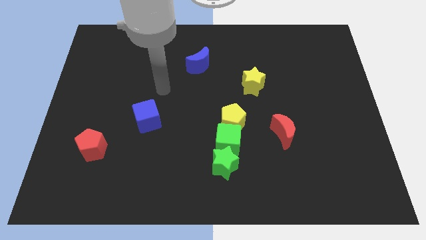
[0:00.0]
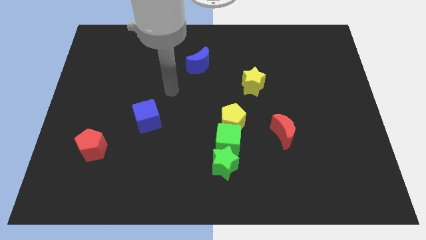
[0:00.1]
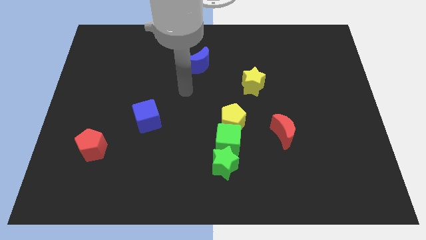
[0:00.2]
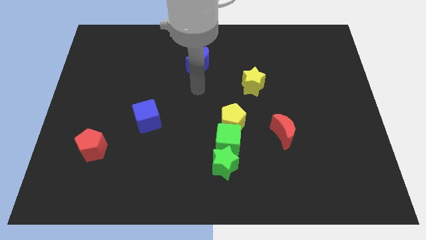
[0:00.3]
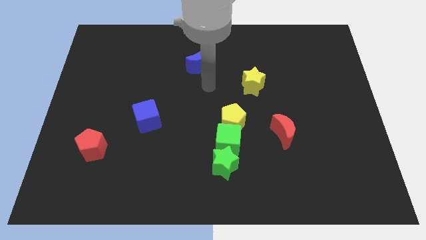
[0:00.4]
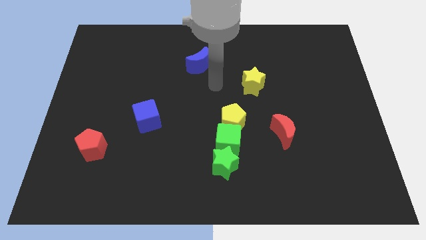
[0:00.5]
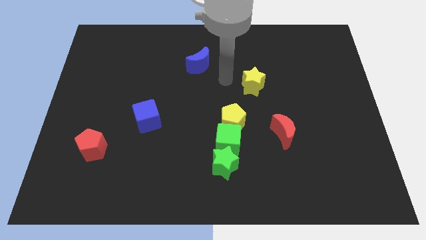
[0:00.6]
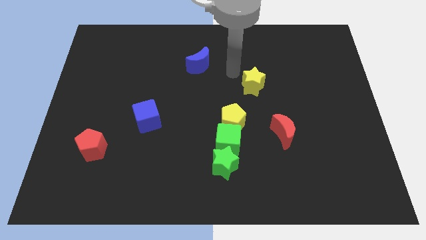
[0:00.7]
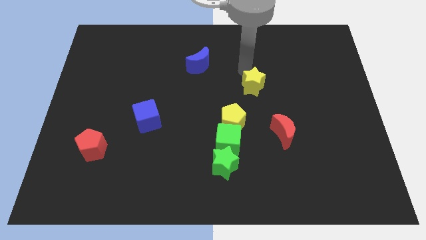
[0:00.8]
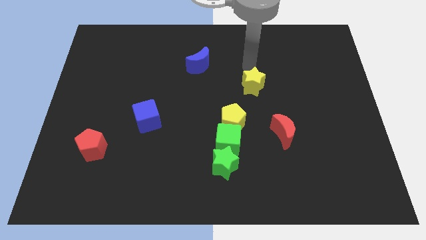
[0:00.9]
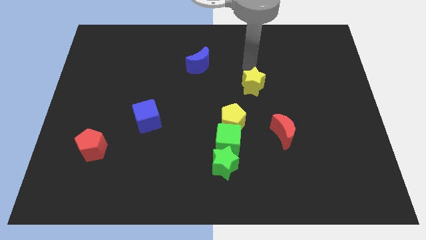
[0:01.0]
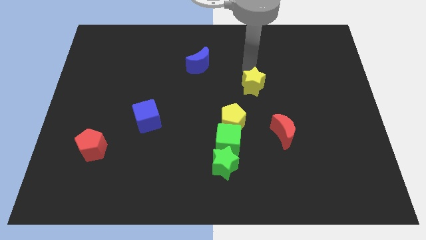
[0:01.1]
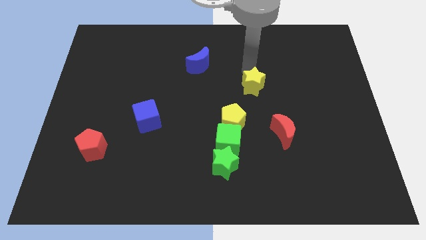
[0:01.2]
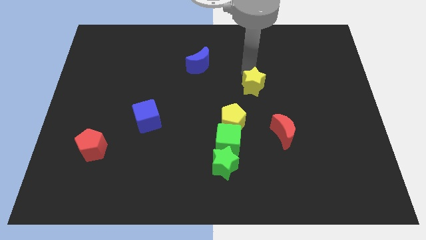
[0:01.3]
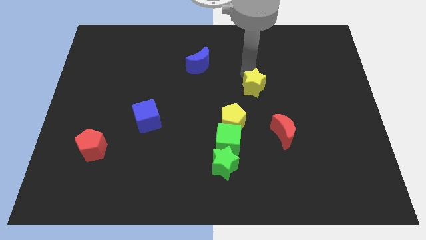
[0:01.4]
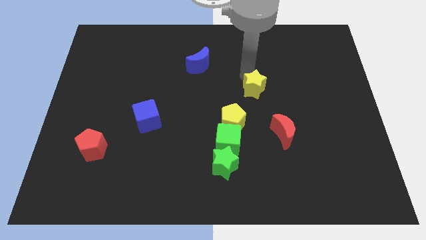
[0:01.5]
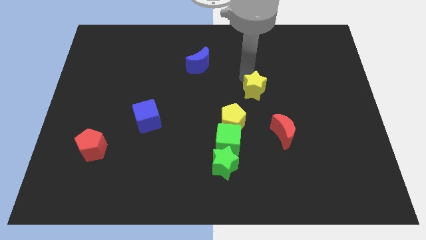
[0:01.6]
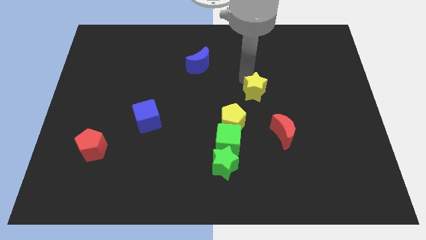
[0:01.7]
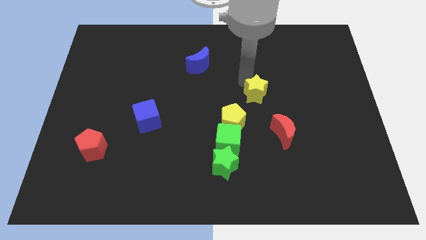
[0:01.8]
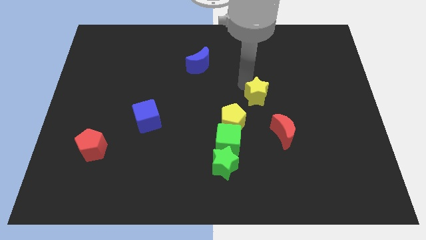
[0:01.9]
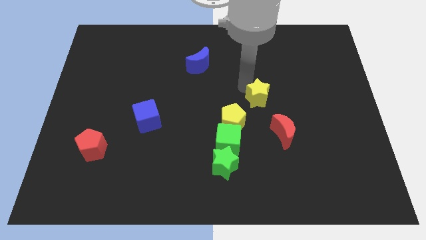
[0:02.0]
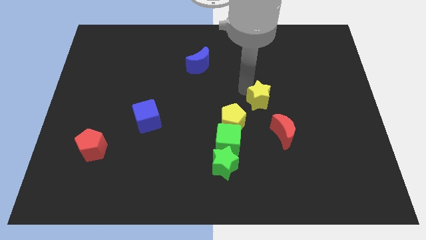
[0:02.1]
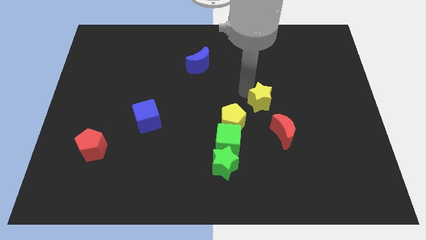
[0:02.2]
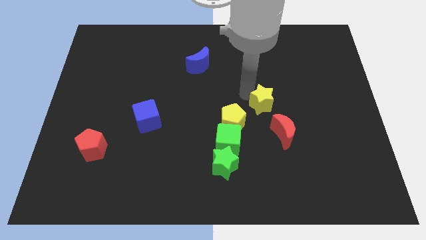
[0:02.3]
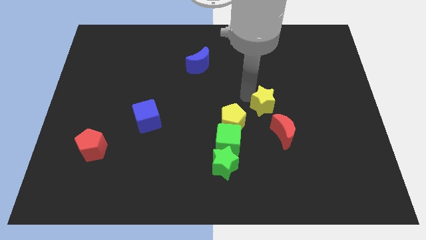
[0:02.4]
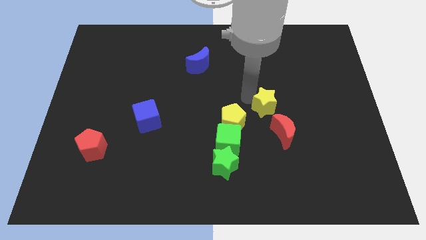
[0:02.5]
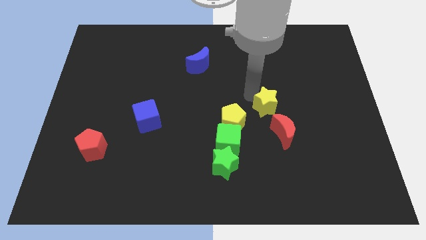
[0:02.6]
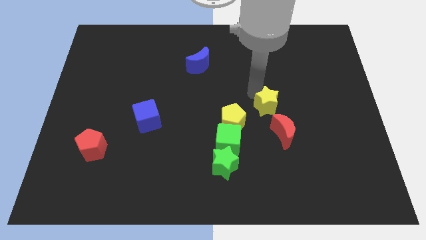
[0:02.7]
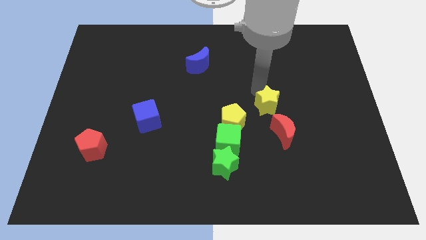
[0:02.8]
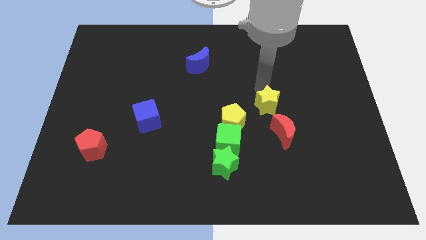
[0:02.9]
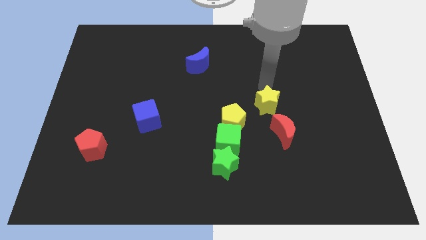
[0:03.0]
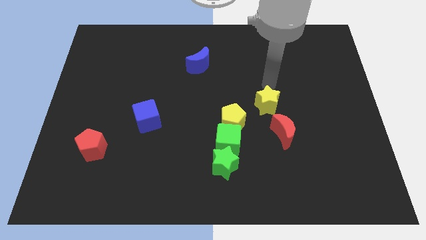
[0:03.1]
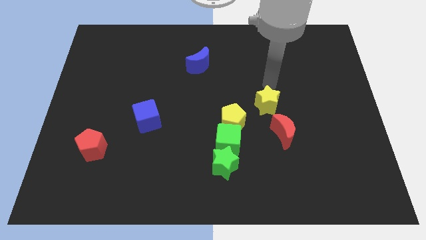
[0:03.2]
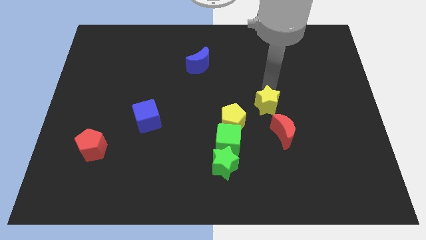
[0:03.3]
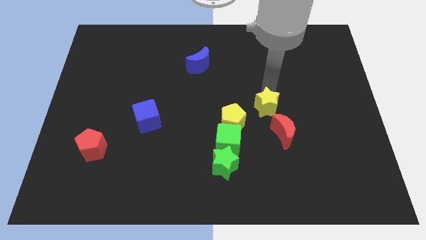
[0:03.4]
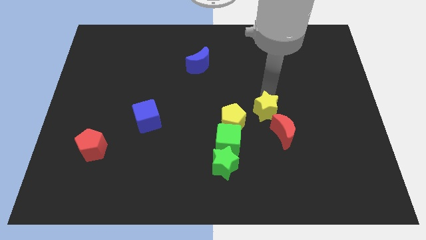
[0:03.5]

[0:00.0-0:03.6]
move the yellow star downwards a bit

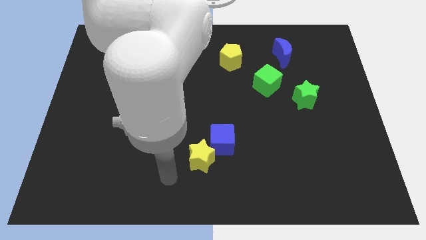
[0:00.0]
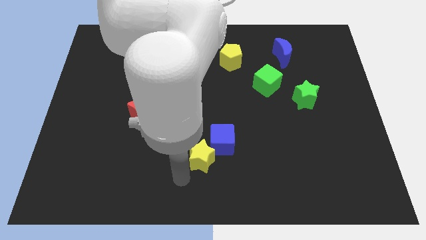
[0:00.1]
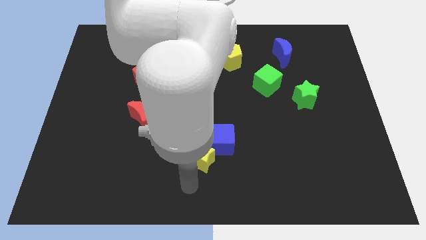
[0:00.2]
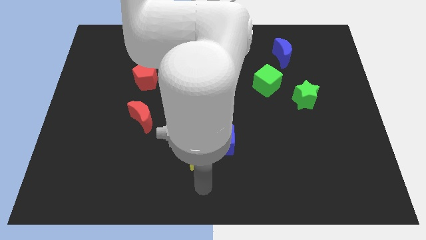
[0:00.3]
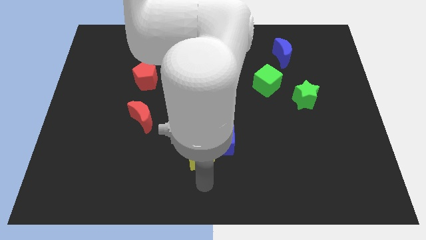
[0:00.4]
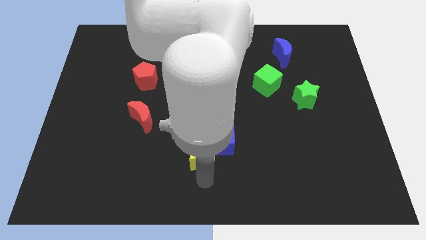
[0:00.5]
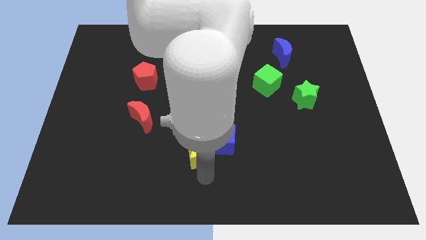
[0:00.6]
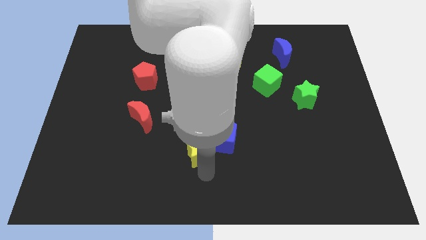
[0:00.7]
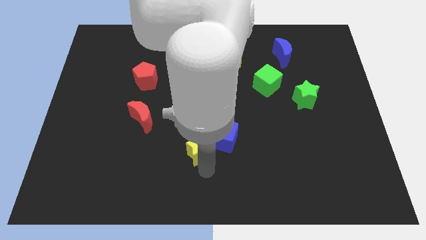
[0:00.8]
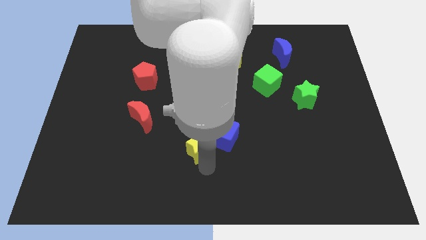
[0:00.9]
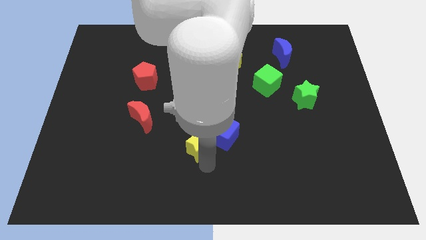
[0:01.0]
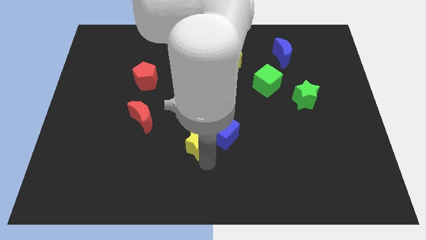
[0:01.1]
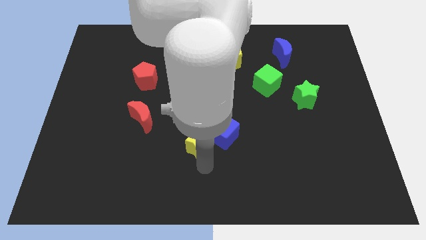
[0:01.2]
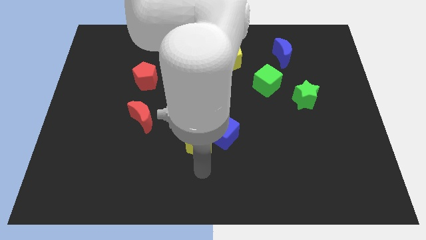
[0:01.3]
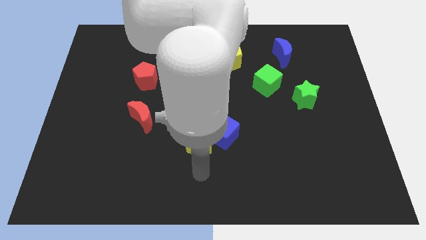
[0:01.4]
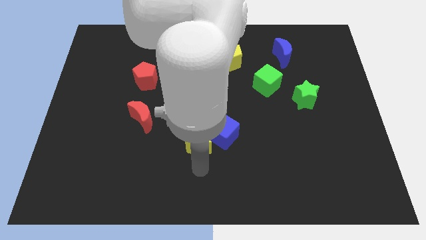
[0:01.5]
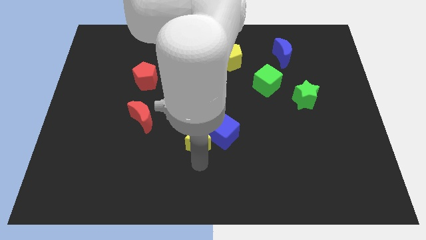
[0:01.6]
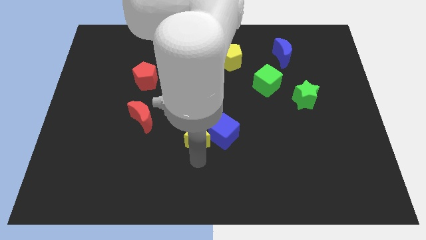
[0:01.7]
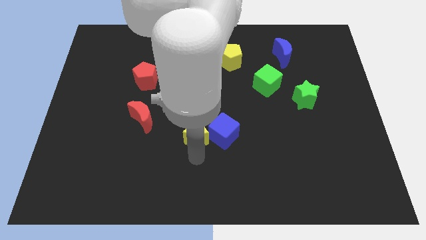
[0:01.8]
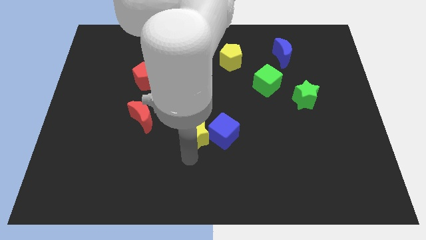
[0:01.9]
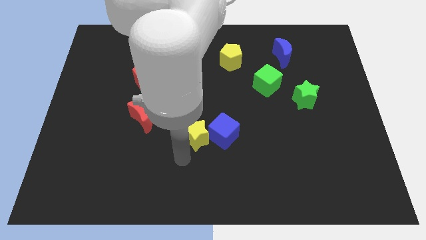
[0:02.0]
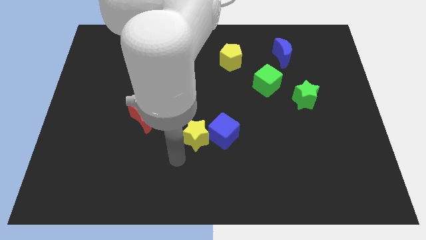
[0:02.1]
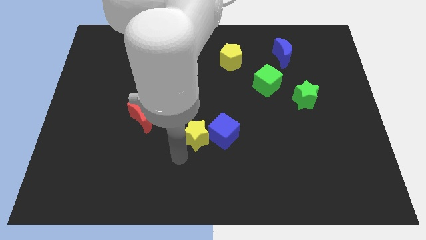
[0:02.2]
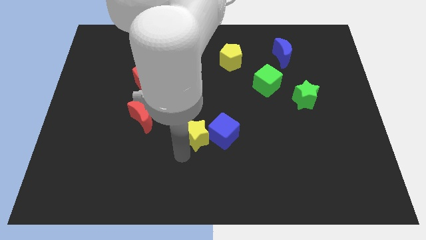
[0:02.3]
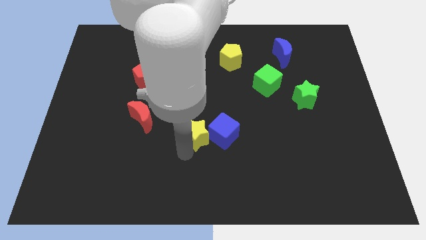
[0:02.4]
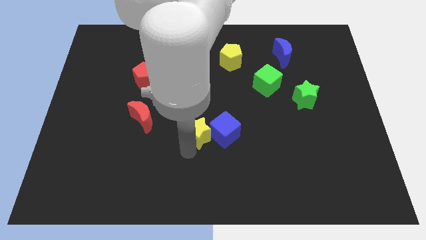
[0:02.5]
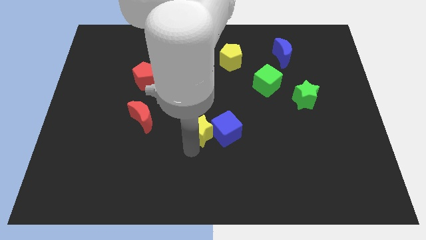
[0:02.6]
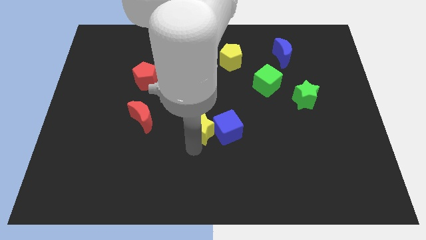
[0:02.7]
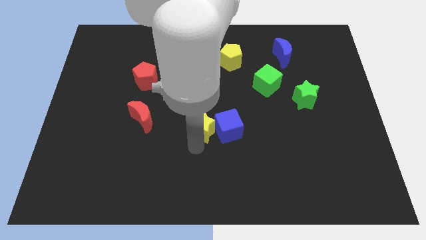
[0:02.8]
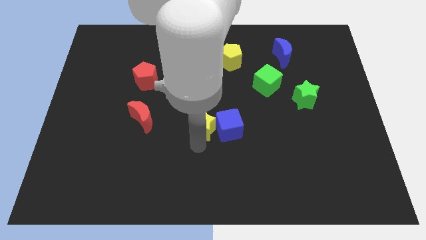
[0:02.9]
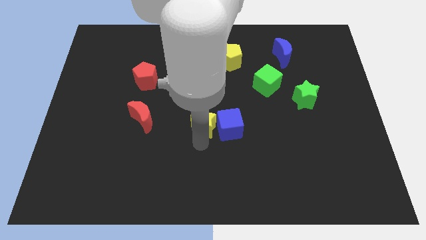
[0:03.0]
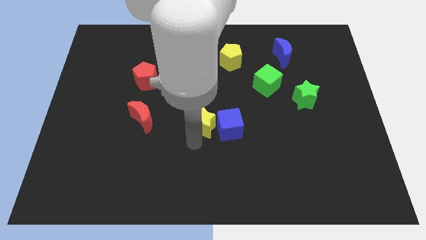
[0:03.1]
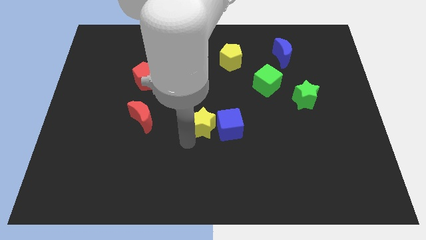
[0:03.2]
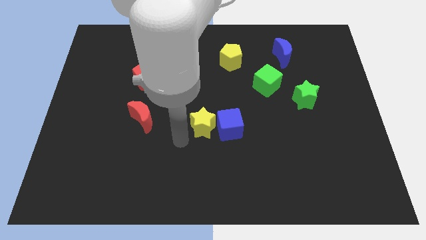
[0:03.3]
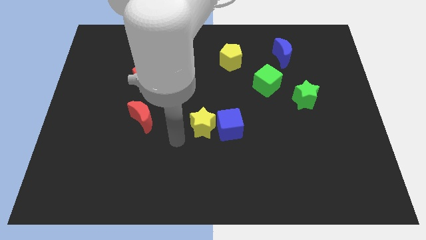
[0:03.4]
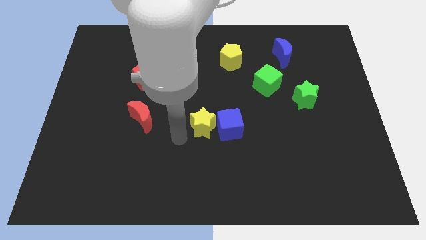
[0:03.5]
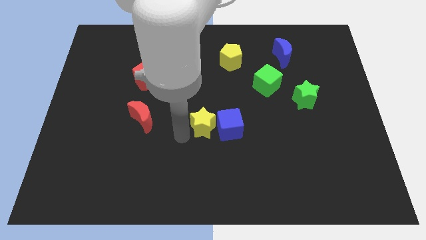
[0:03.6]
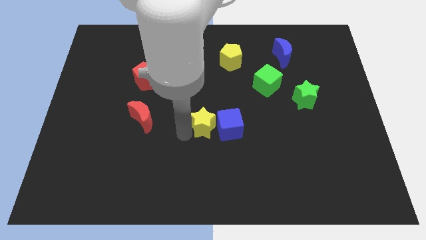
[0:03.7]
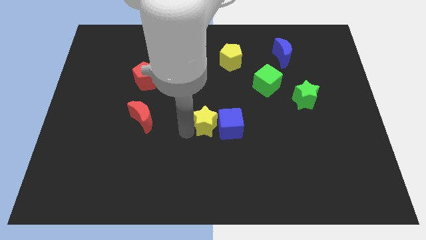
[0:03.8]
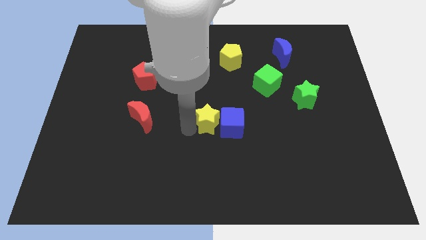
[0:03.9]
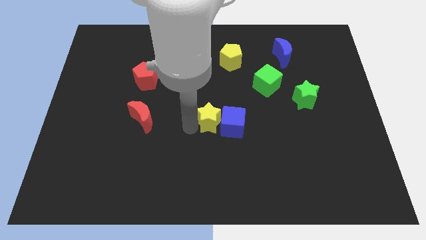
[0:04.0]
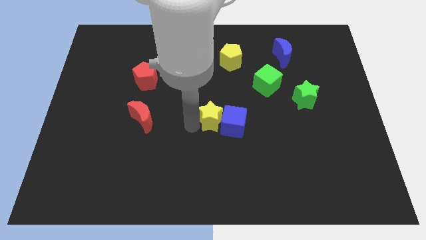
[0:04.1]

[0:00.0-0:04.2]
slightly push the yellow star diagonally up and right
